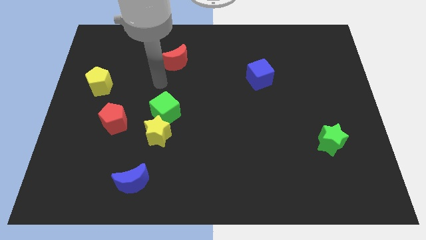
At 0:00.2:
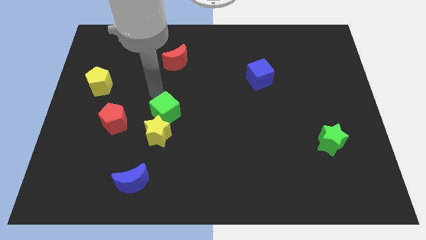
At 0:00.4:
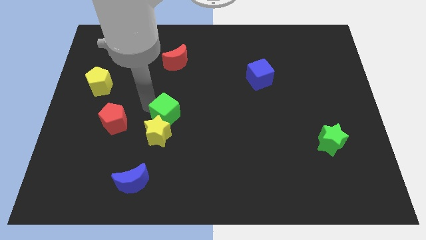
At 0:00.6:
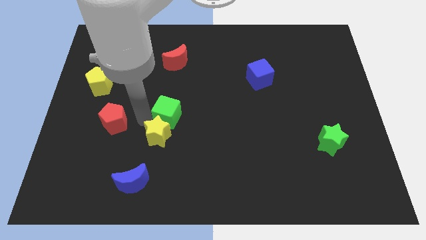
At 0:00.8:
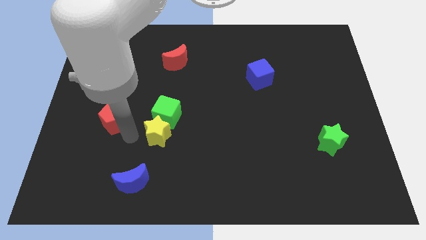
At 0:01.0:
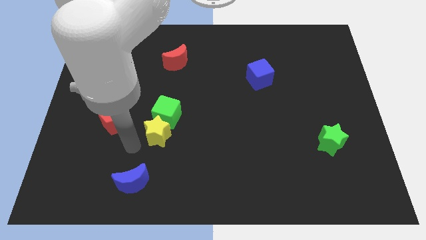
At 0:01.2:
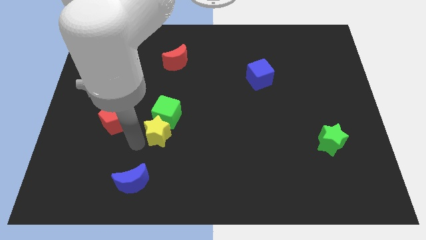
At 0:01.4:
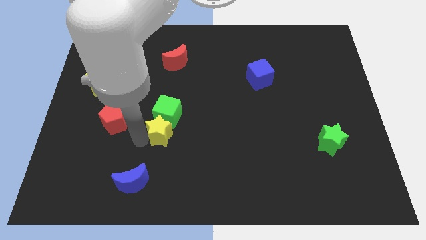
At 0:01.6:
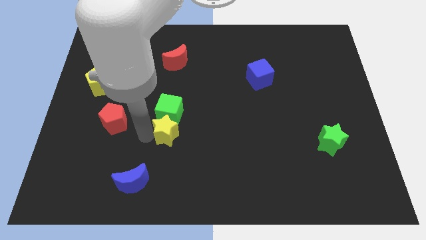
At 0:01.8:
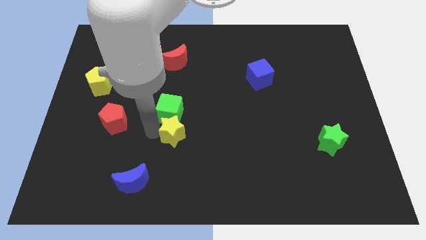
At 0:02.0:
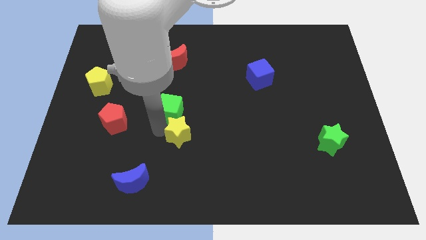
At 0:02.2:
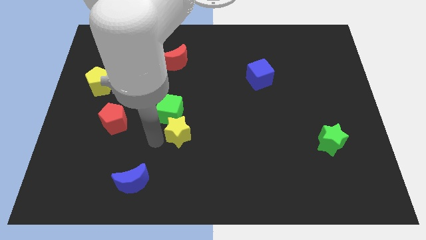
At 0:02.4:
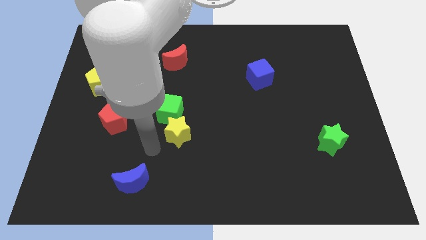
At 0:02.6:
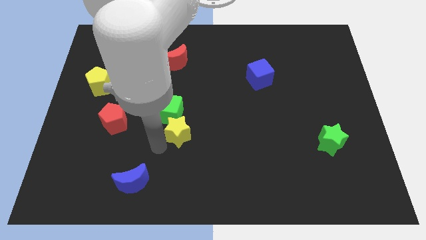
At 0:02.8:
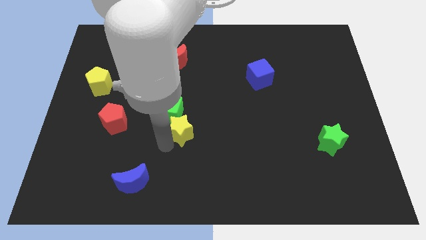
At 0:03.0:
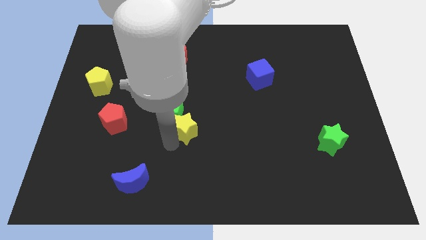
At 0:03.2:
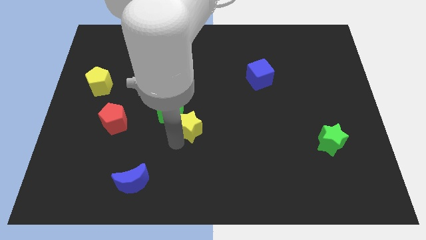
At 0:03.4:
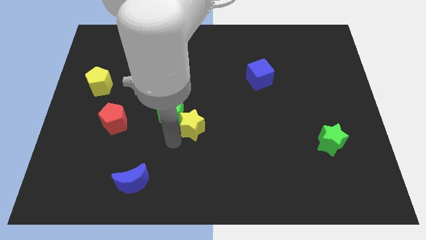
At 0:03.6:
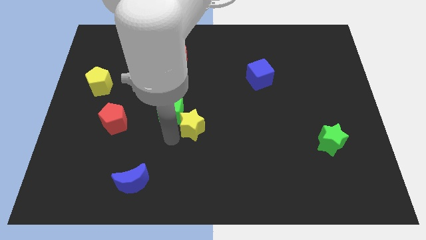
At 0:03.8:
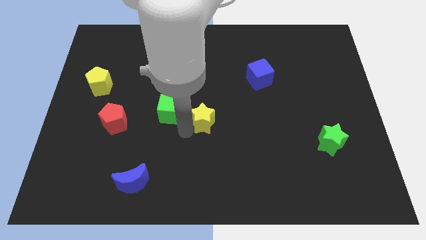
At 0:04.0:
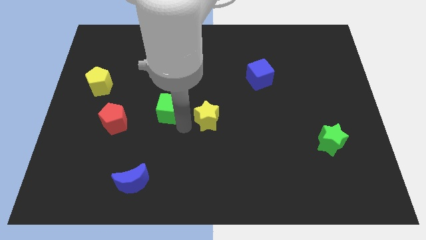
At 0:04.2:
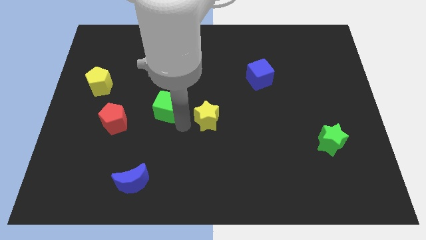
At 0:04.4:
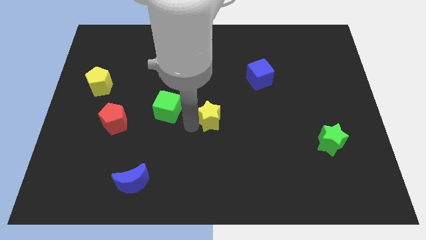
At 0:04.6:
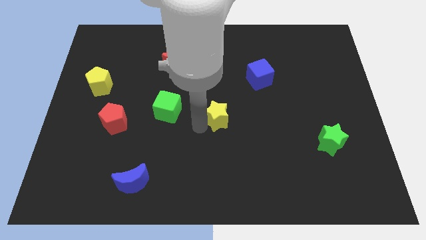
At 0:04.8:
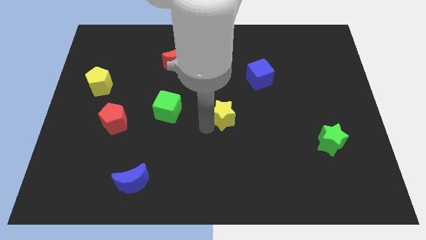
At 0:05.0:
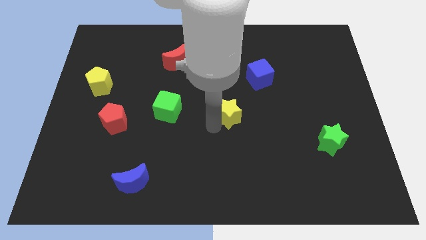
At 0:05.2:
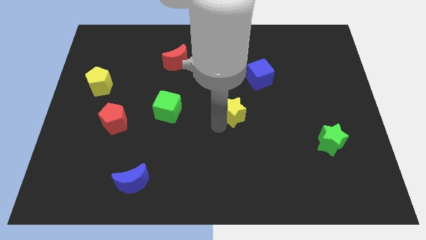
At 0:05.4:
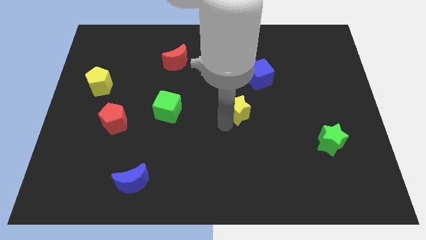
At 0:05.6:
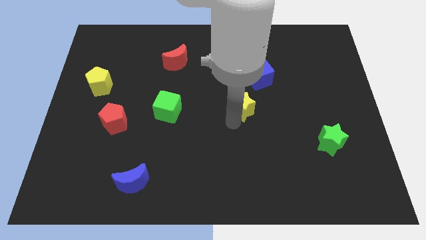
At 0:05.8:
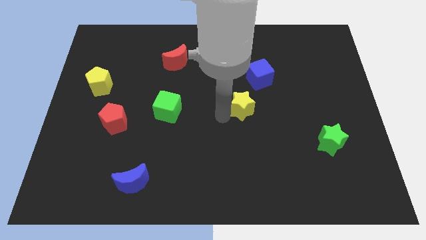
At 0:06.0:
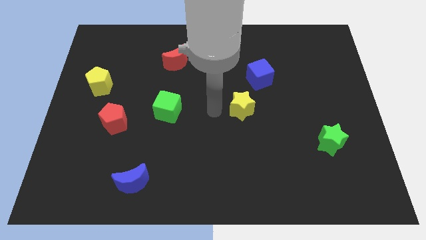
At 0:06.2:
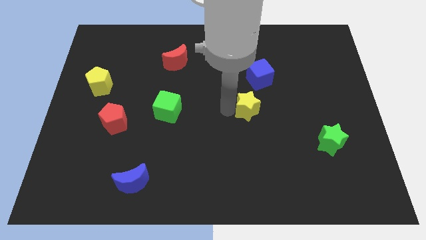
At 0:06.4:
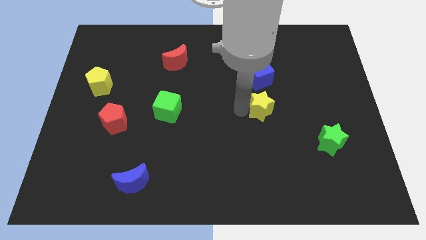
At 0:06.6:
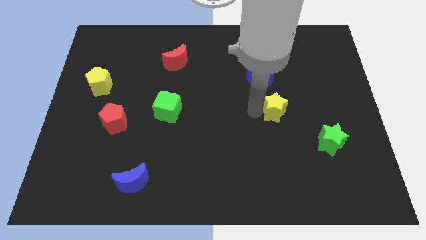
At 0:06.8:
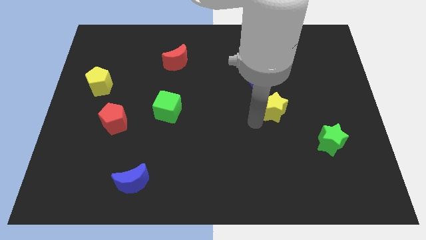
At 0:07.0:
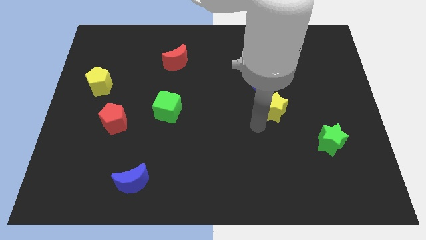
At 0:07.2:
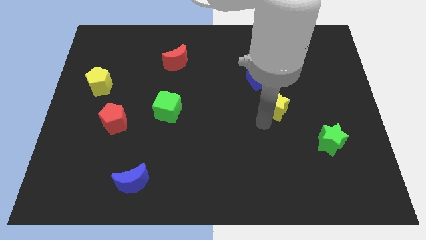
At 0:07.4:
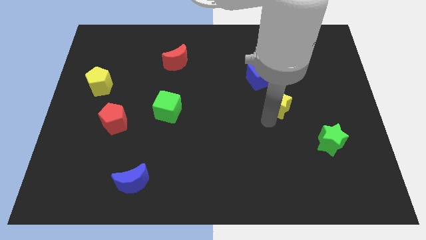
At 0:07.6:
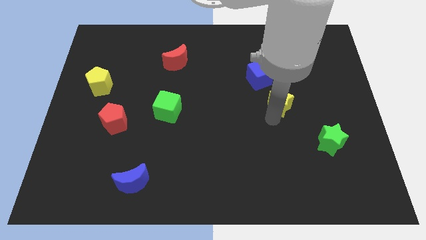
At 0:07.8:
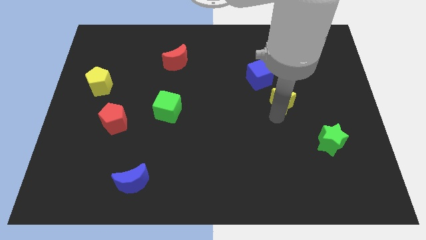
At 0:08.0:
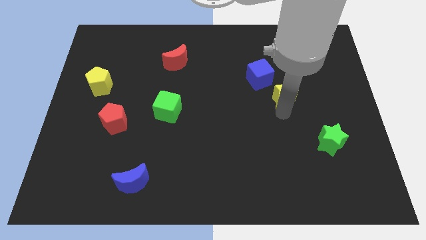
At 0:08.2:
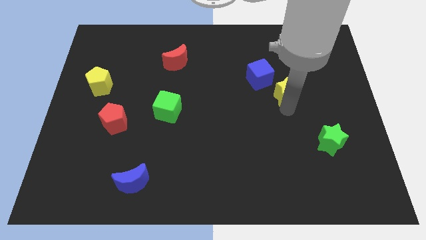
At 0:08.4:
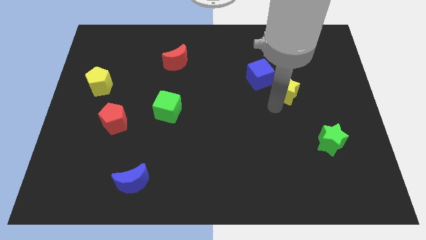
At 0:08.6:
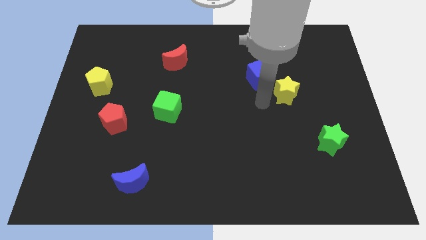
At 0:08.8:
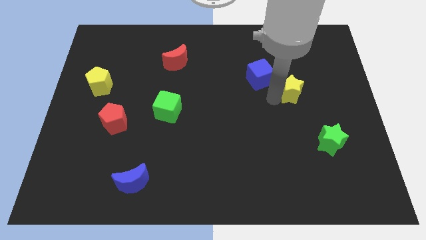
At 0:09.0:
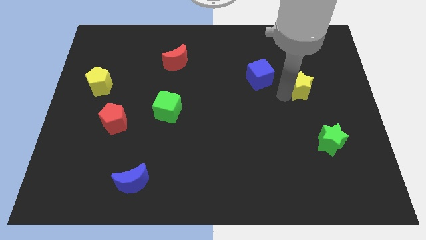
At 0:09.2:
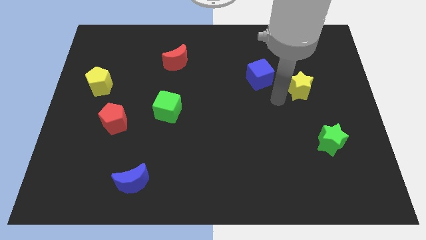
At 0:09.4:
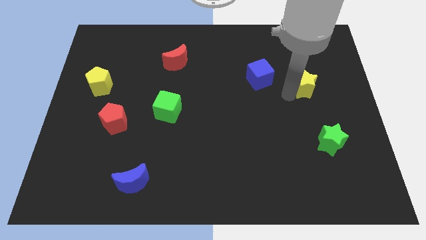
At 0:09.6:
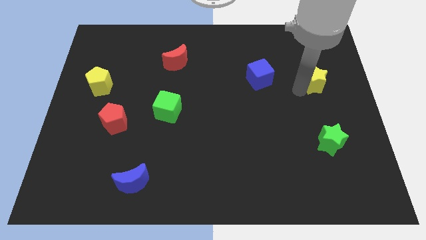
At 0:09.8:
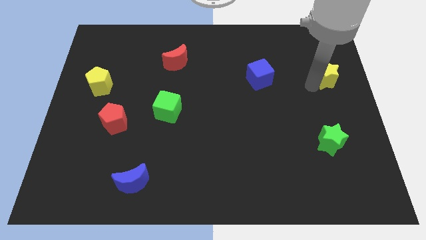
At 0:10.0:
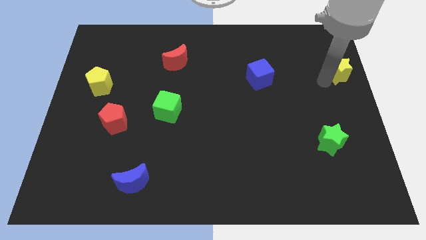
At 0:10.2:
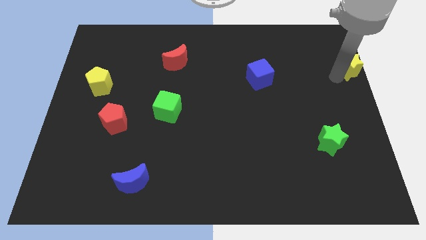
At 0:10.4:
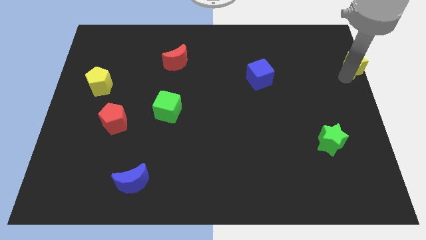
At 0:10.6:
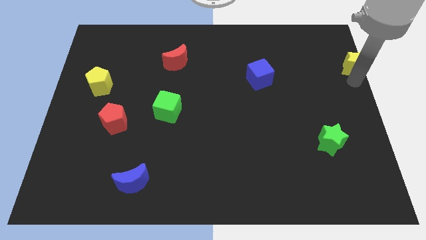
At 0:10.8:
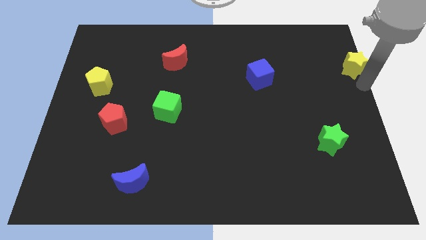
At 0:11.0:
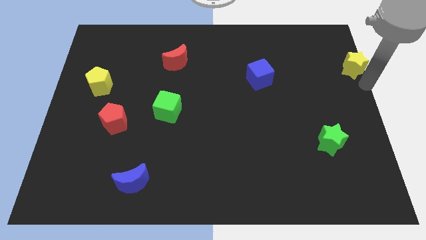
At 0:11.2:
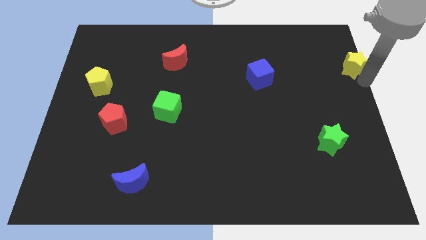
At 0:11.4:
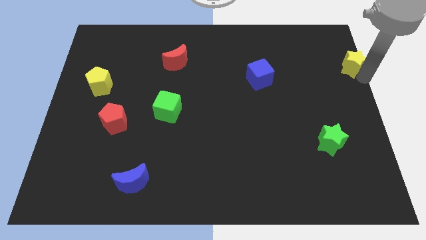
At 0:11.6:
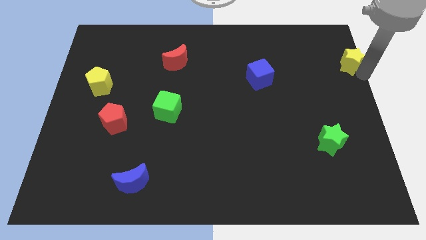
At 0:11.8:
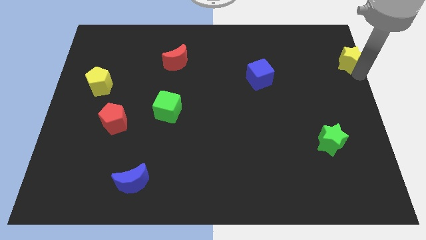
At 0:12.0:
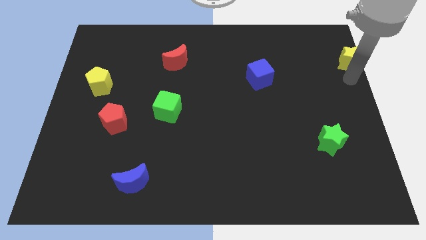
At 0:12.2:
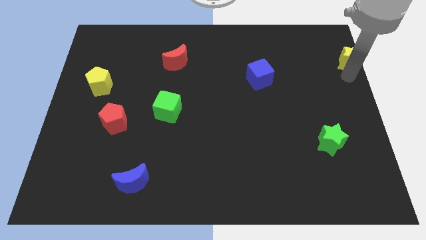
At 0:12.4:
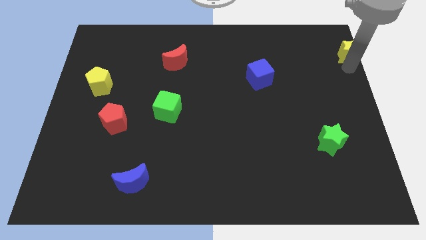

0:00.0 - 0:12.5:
push the yellow star to the top right
